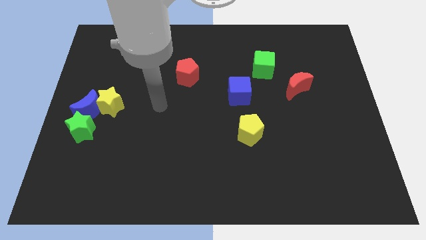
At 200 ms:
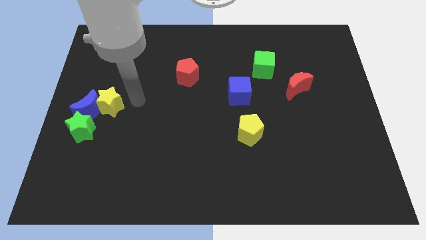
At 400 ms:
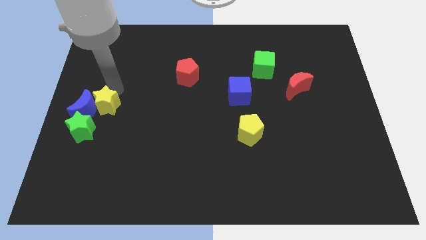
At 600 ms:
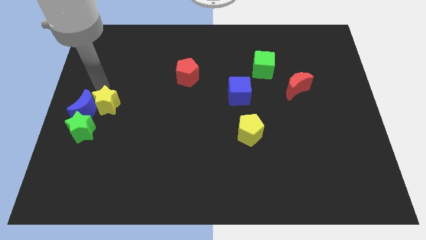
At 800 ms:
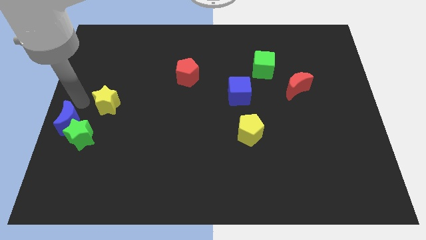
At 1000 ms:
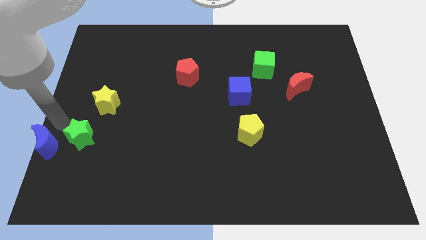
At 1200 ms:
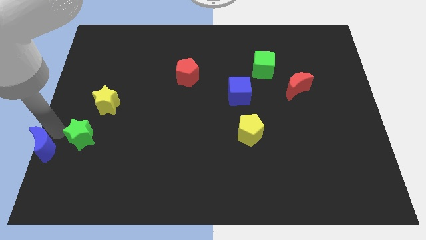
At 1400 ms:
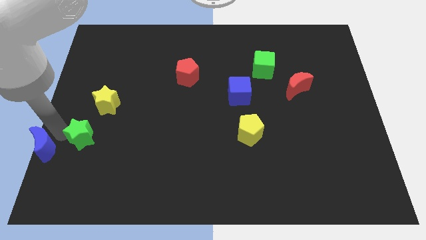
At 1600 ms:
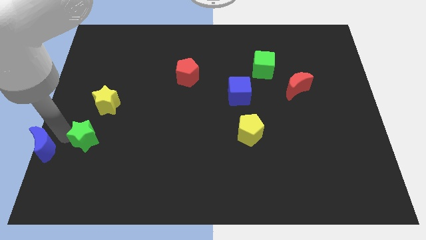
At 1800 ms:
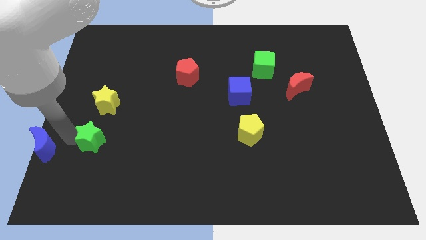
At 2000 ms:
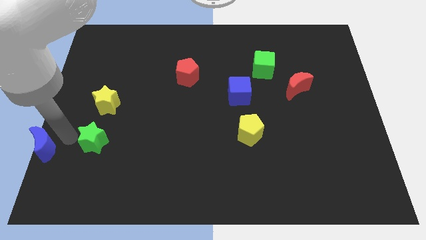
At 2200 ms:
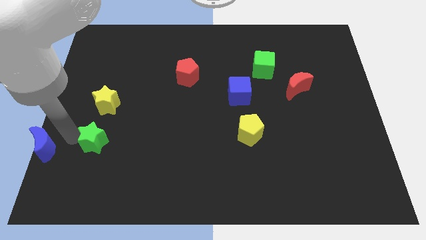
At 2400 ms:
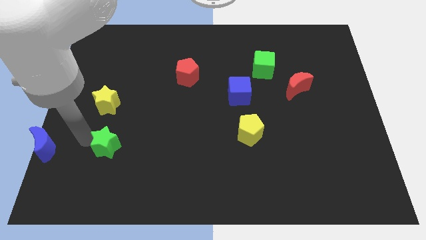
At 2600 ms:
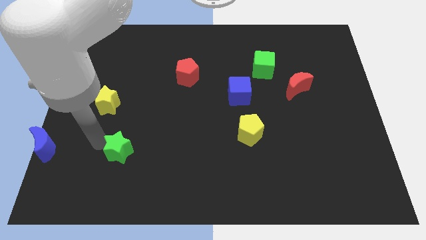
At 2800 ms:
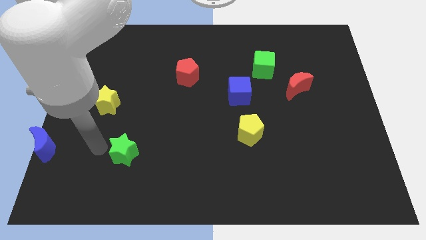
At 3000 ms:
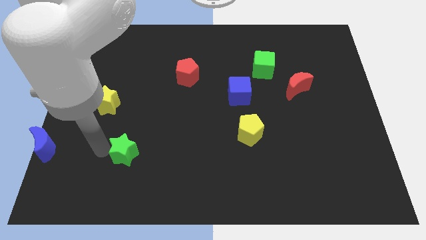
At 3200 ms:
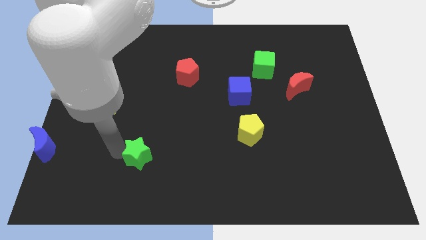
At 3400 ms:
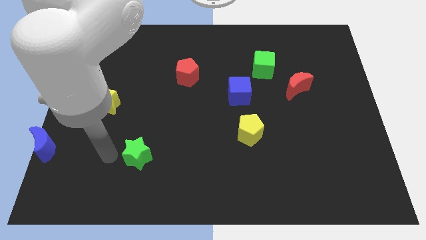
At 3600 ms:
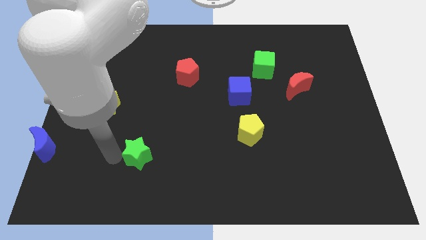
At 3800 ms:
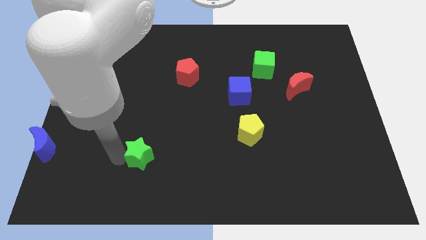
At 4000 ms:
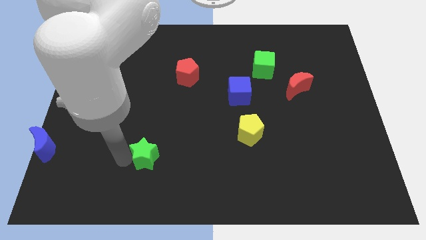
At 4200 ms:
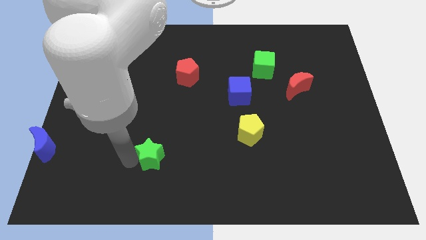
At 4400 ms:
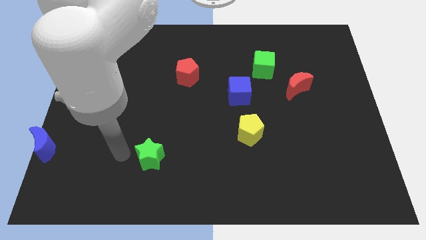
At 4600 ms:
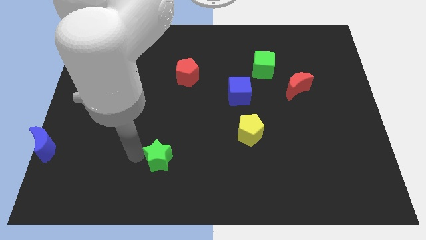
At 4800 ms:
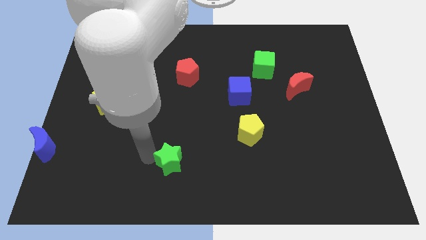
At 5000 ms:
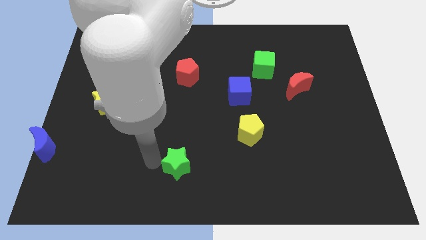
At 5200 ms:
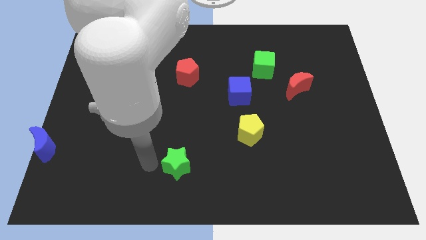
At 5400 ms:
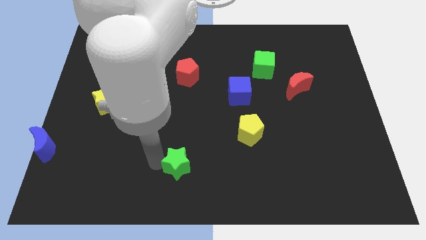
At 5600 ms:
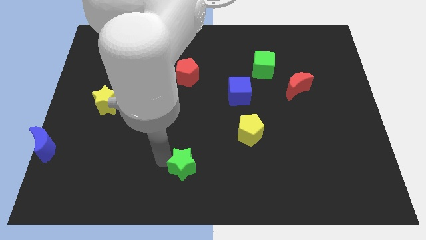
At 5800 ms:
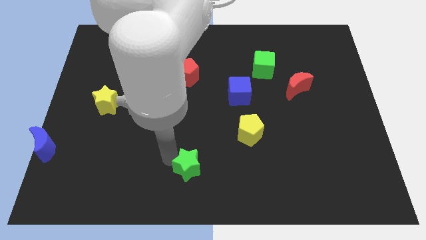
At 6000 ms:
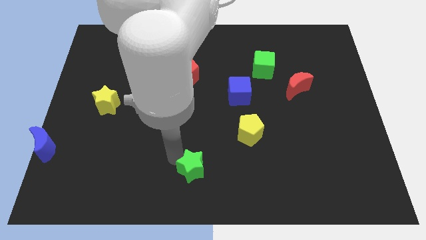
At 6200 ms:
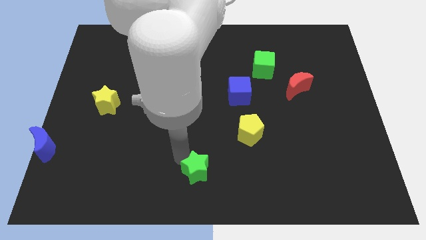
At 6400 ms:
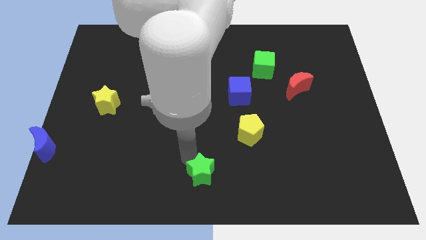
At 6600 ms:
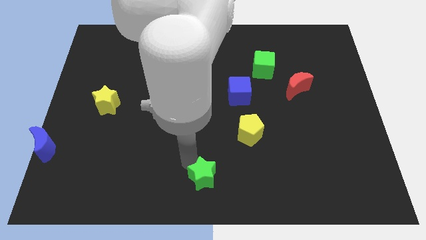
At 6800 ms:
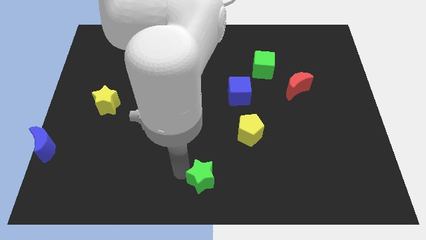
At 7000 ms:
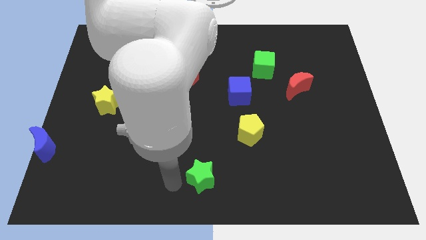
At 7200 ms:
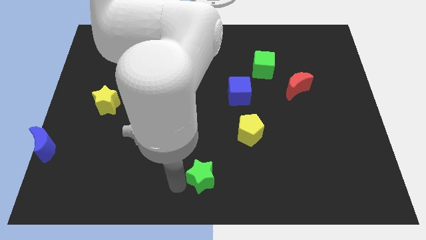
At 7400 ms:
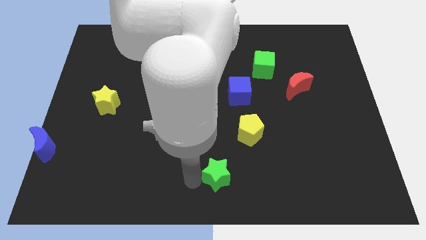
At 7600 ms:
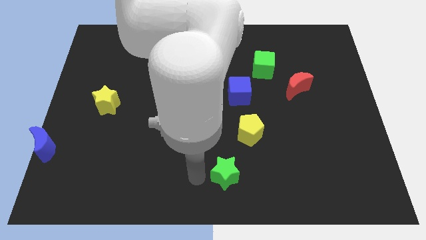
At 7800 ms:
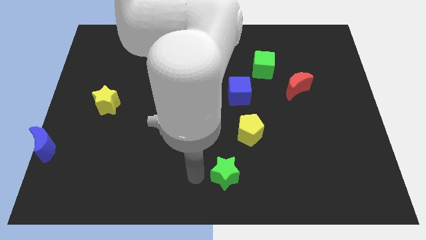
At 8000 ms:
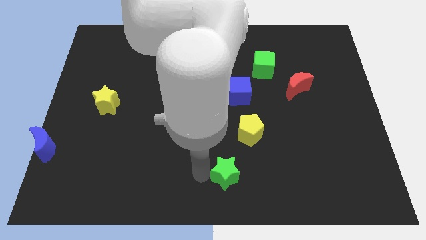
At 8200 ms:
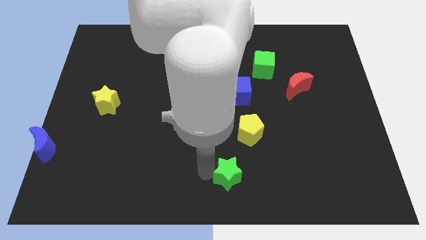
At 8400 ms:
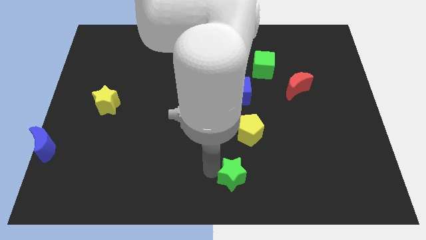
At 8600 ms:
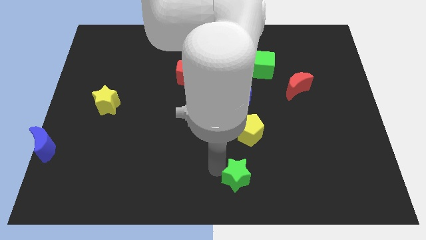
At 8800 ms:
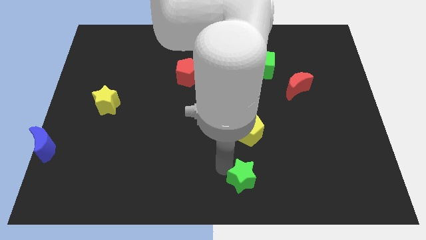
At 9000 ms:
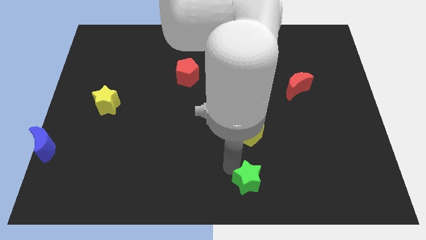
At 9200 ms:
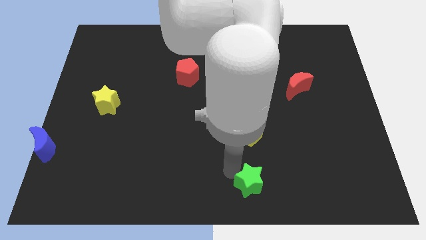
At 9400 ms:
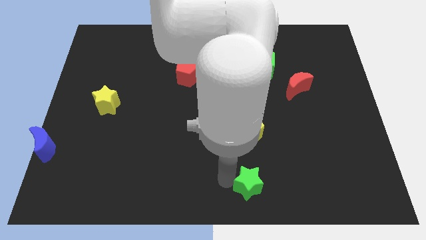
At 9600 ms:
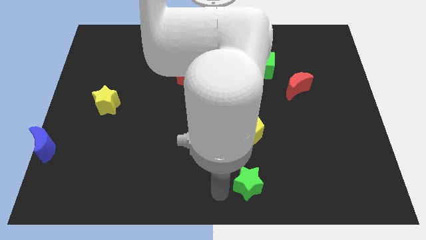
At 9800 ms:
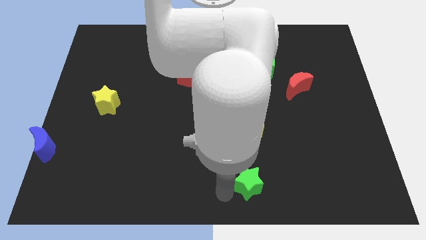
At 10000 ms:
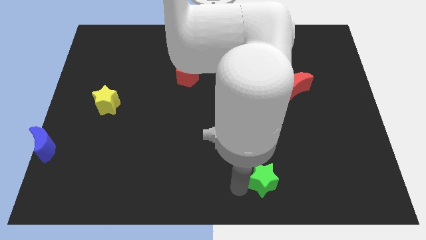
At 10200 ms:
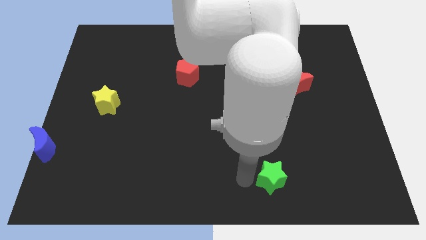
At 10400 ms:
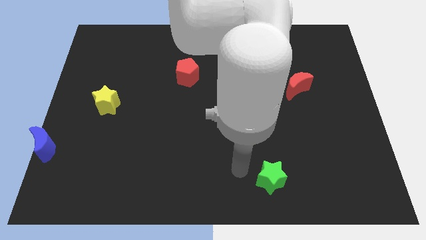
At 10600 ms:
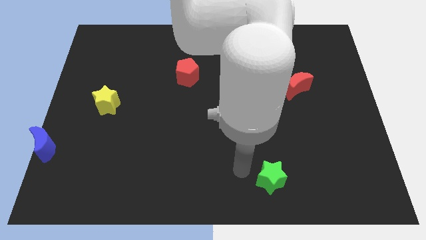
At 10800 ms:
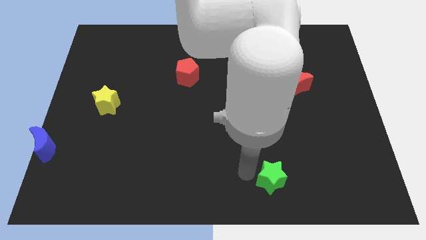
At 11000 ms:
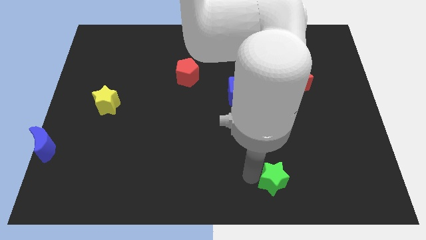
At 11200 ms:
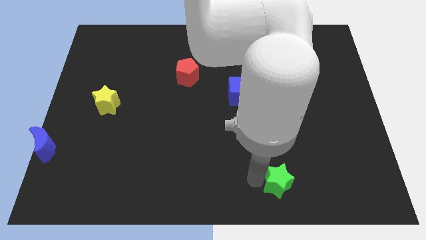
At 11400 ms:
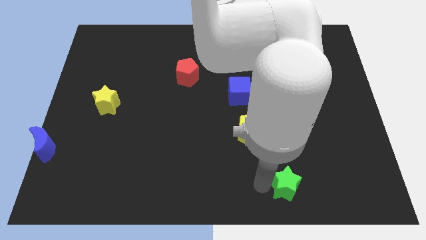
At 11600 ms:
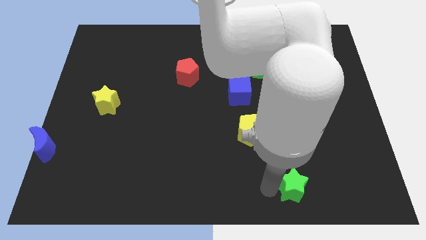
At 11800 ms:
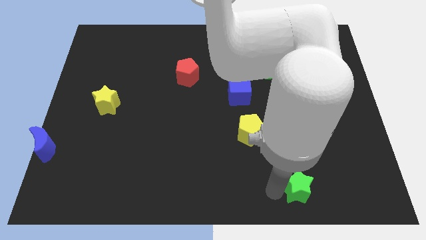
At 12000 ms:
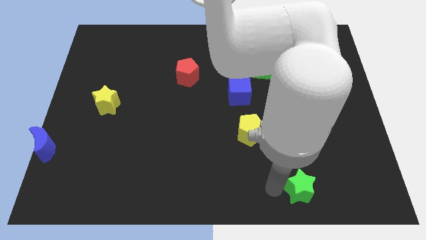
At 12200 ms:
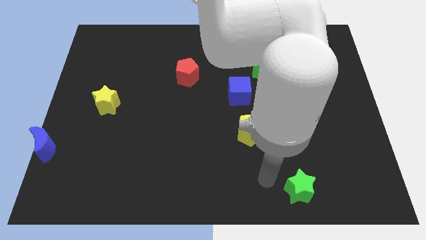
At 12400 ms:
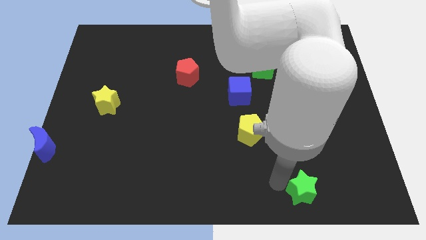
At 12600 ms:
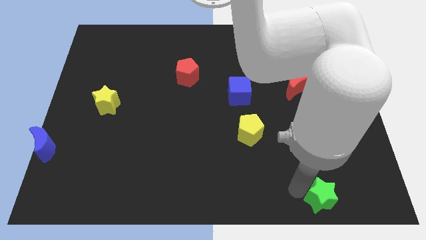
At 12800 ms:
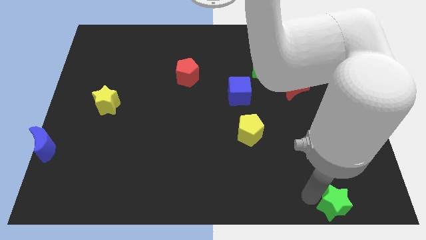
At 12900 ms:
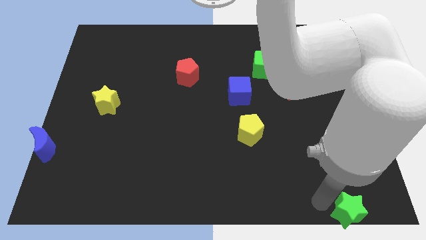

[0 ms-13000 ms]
push the green star to the bottom right of the board

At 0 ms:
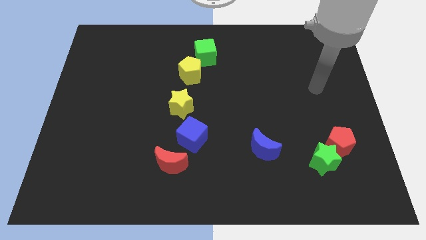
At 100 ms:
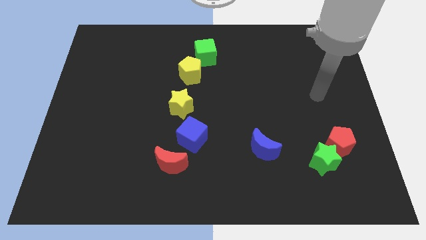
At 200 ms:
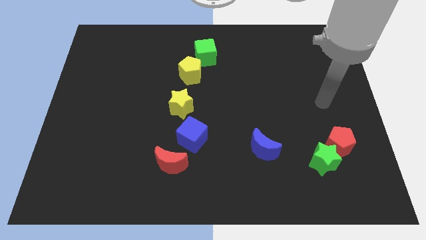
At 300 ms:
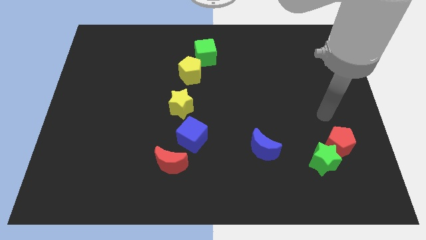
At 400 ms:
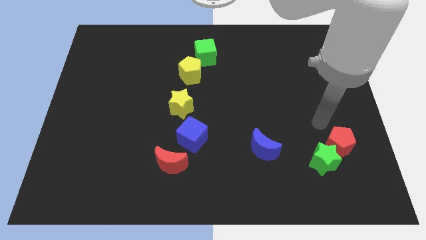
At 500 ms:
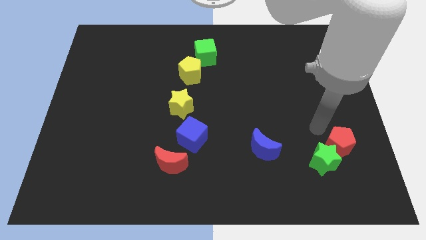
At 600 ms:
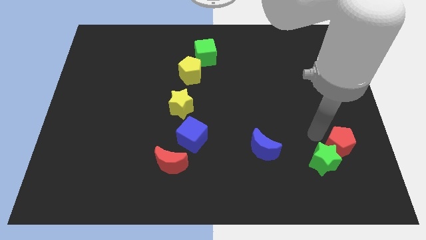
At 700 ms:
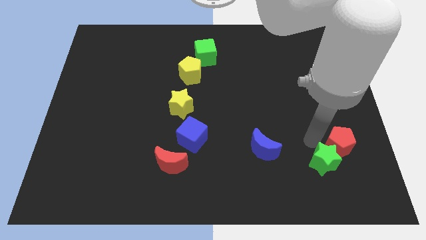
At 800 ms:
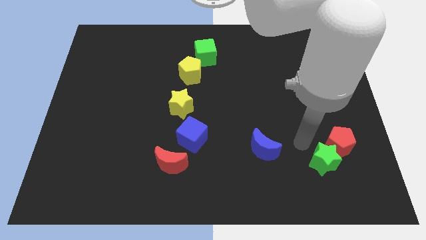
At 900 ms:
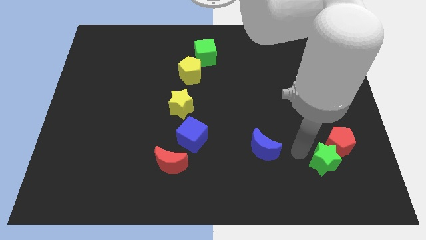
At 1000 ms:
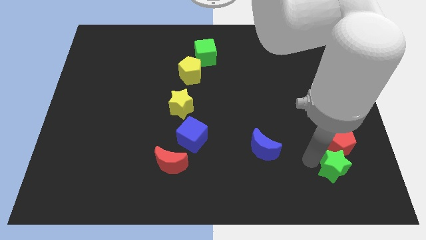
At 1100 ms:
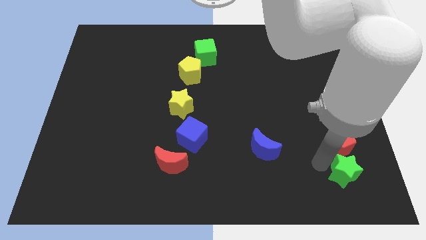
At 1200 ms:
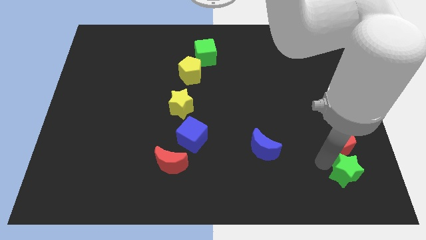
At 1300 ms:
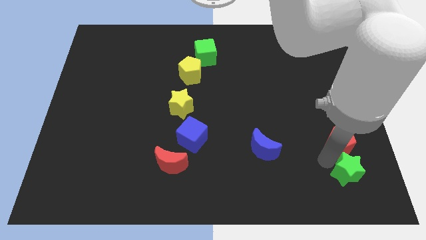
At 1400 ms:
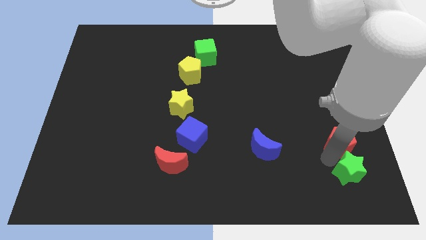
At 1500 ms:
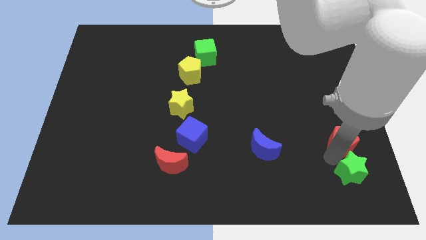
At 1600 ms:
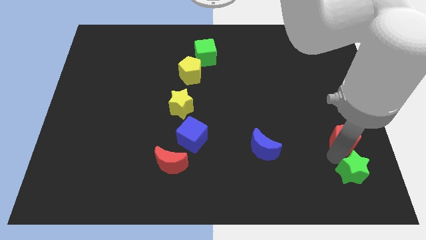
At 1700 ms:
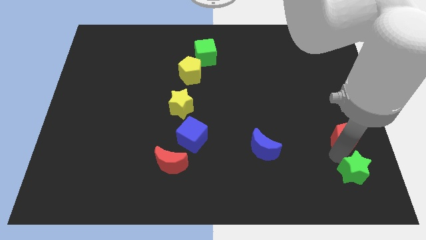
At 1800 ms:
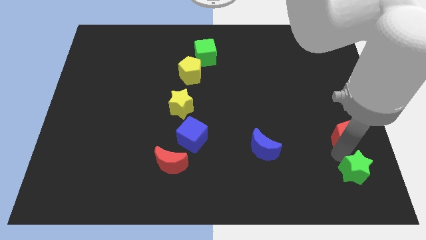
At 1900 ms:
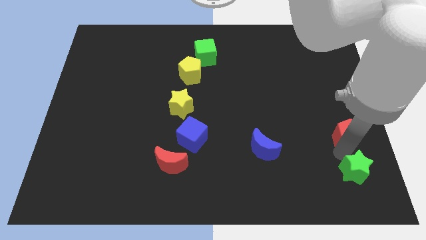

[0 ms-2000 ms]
move the red pentagon to the right side of the board
